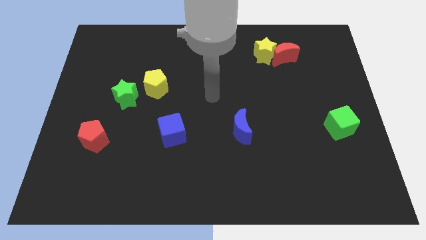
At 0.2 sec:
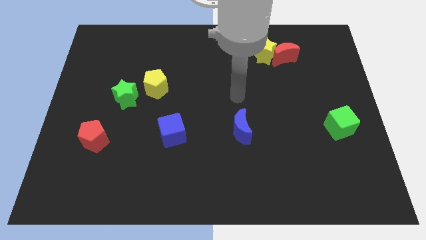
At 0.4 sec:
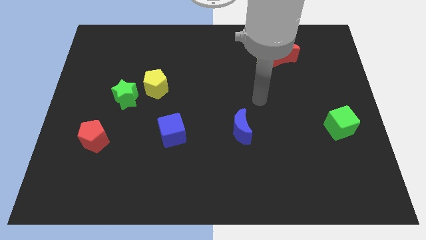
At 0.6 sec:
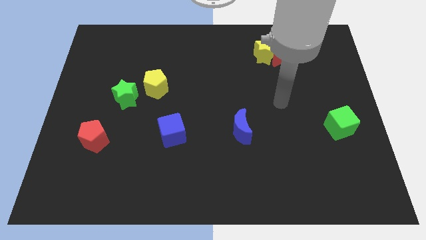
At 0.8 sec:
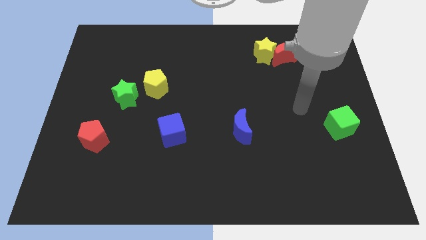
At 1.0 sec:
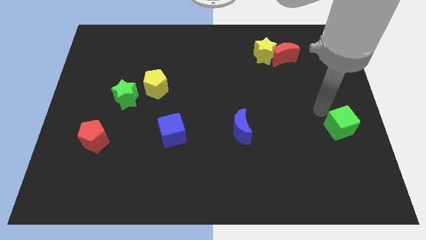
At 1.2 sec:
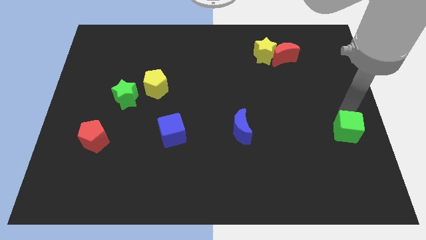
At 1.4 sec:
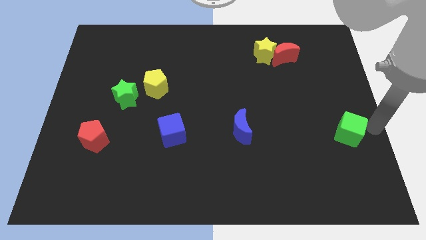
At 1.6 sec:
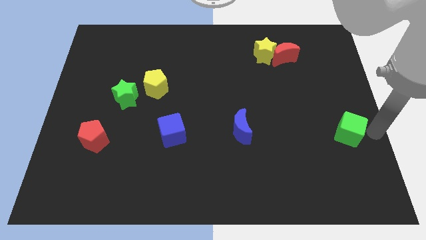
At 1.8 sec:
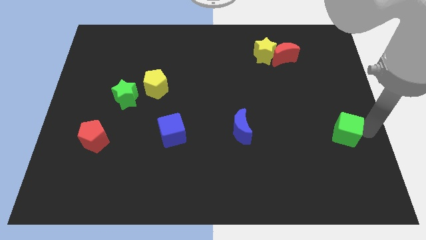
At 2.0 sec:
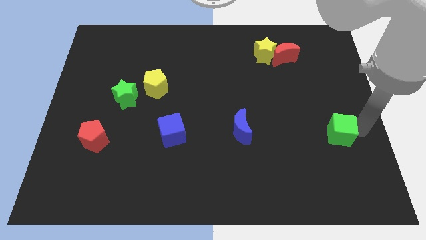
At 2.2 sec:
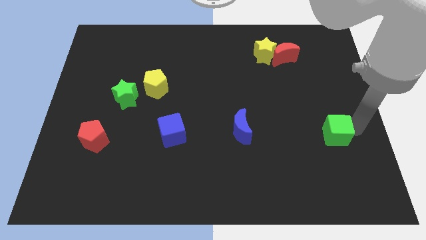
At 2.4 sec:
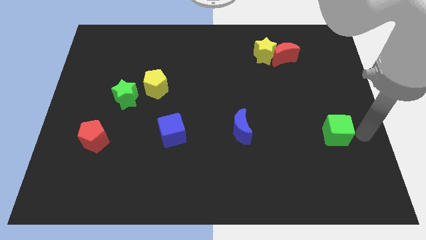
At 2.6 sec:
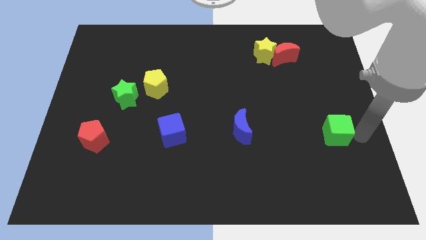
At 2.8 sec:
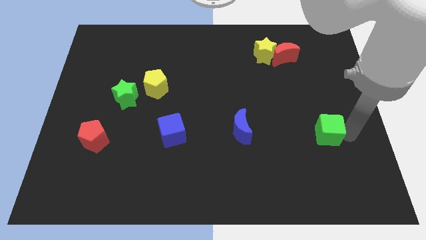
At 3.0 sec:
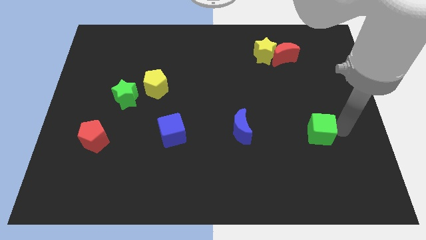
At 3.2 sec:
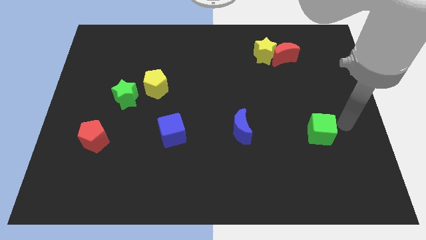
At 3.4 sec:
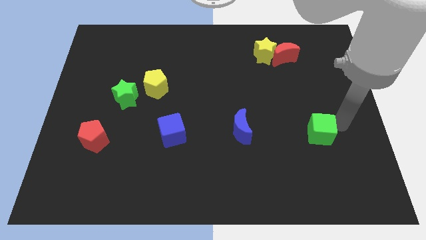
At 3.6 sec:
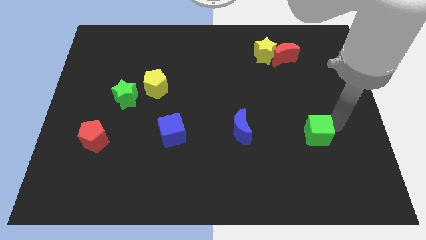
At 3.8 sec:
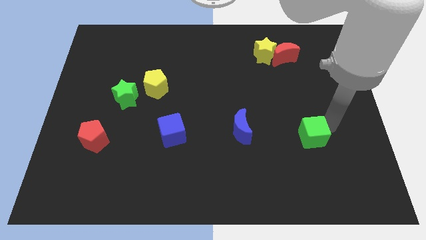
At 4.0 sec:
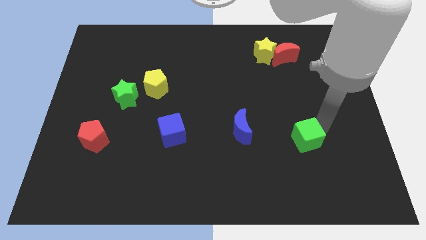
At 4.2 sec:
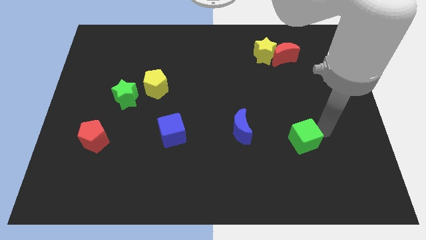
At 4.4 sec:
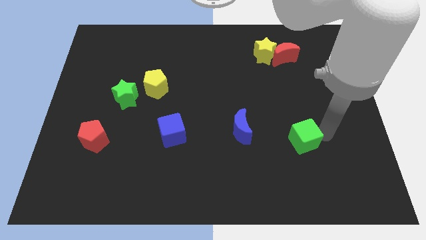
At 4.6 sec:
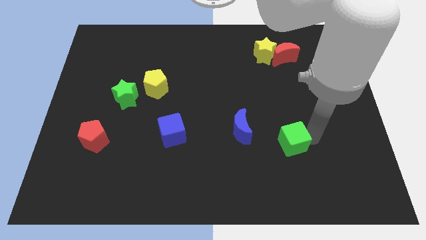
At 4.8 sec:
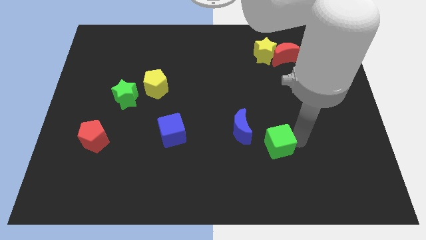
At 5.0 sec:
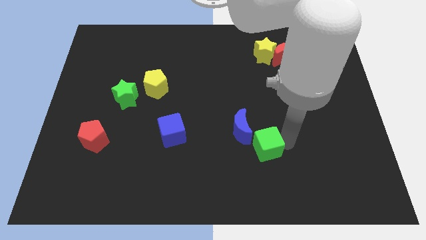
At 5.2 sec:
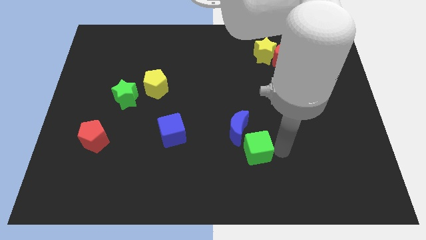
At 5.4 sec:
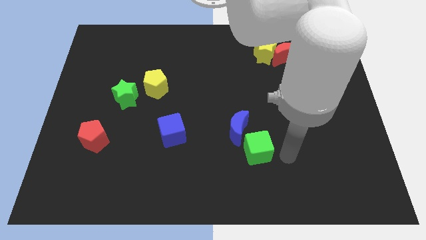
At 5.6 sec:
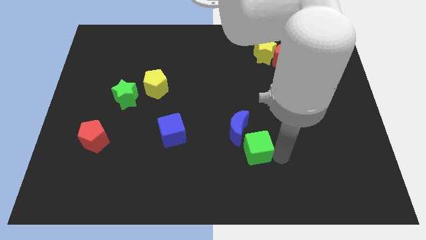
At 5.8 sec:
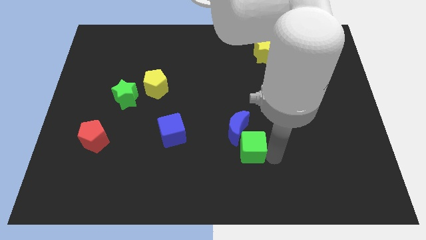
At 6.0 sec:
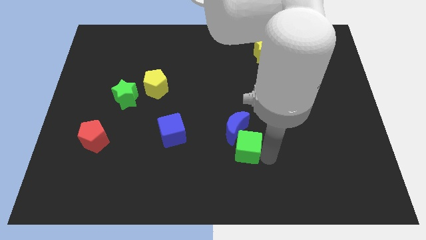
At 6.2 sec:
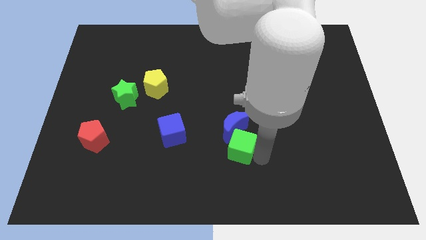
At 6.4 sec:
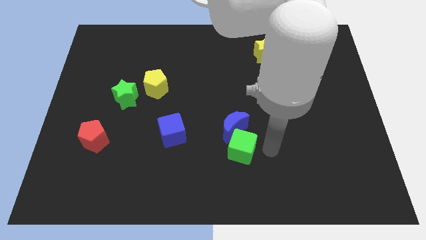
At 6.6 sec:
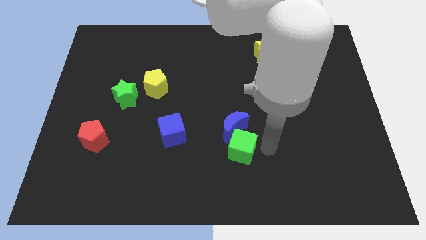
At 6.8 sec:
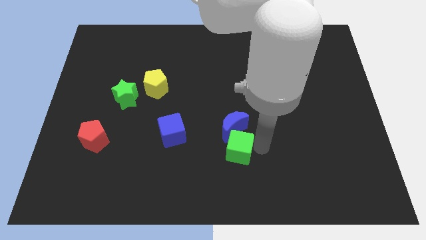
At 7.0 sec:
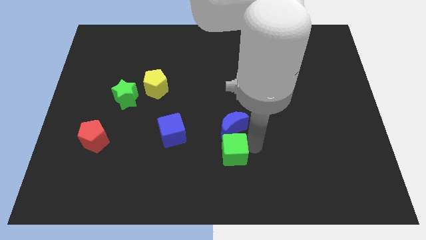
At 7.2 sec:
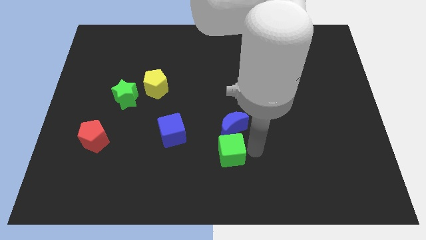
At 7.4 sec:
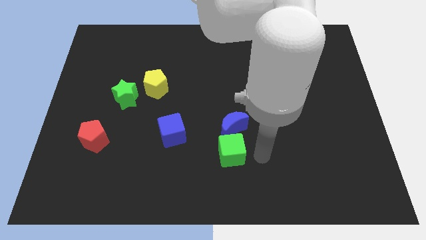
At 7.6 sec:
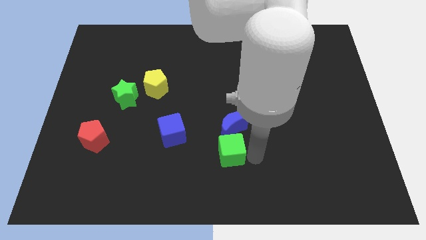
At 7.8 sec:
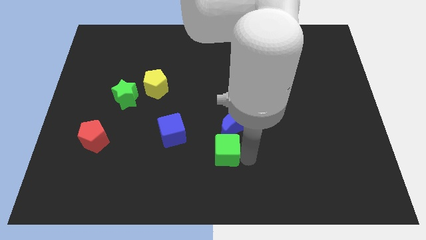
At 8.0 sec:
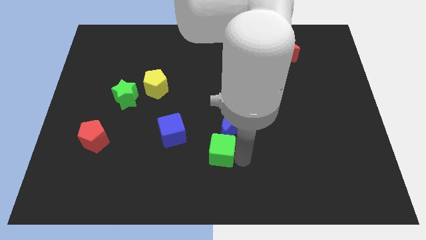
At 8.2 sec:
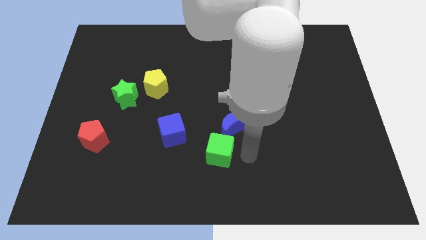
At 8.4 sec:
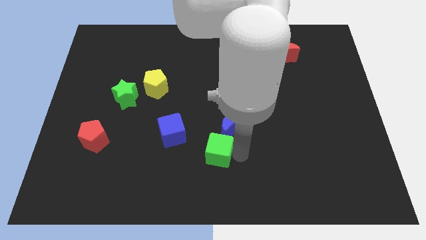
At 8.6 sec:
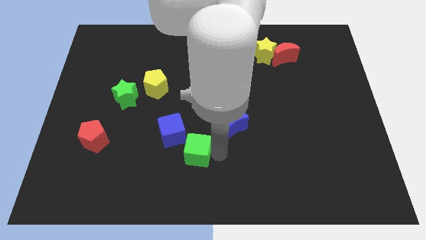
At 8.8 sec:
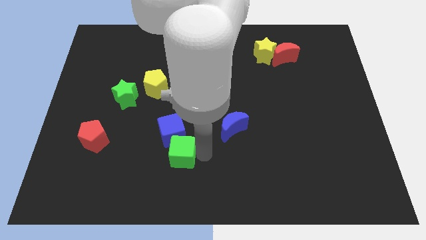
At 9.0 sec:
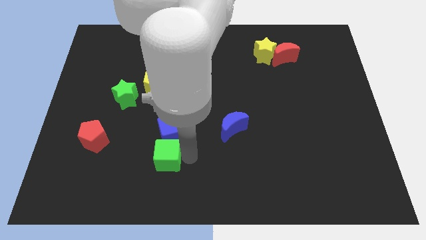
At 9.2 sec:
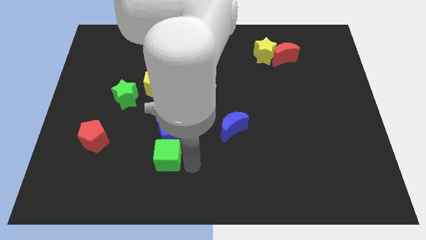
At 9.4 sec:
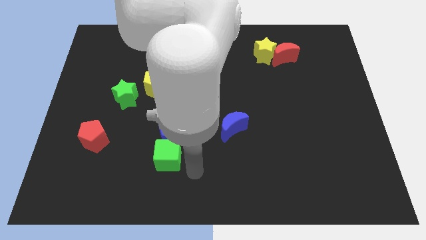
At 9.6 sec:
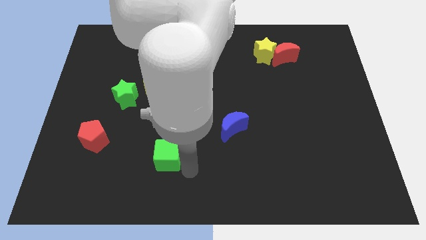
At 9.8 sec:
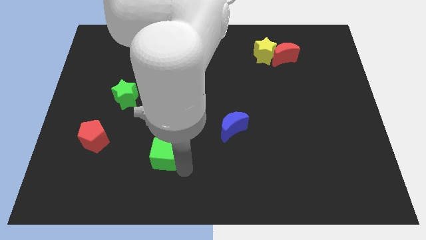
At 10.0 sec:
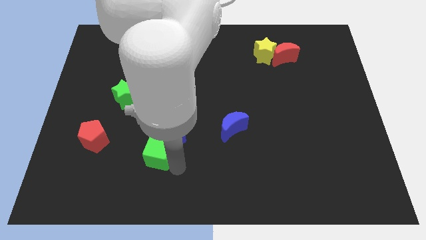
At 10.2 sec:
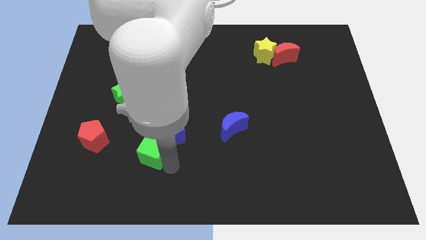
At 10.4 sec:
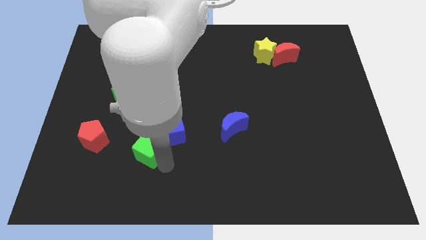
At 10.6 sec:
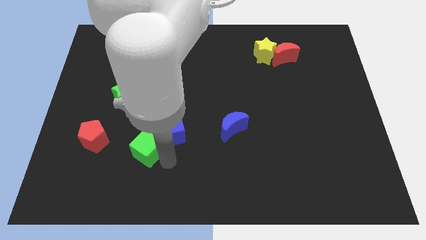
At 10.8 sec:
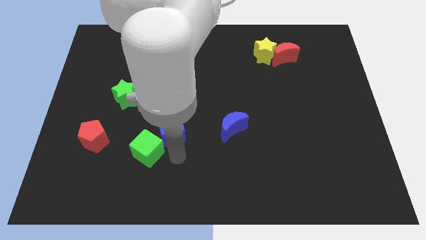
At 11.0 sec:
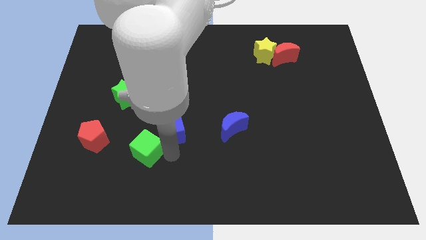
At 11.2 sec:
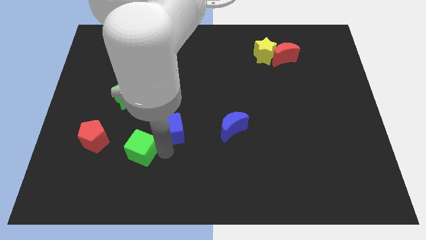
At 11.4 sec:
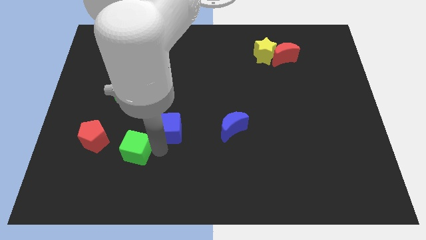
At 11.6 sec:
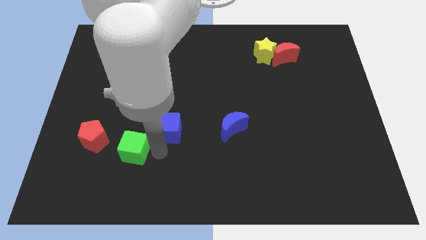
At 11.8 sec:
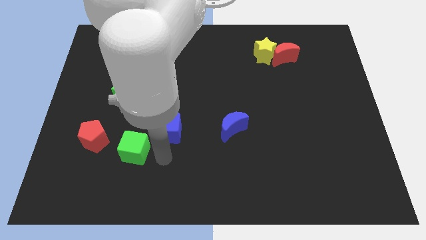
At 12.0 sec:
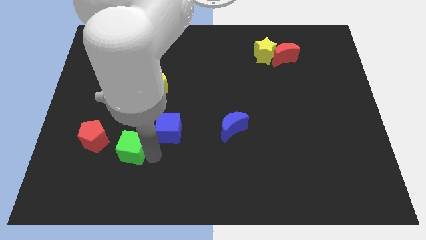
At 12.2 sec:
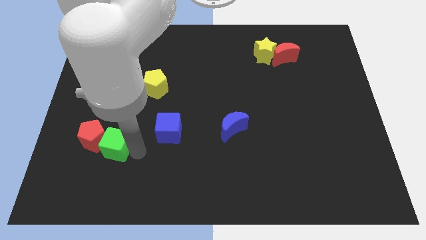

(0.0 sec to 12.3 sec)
push the green cube towards the red pentagon

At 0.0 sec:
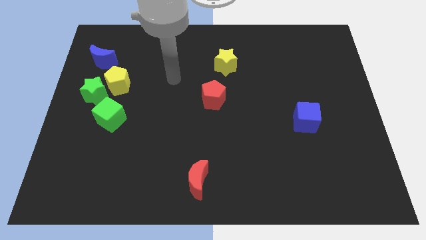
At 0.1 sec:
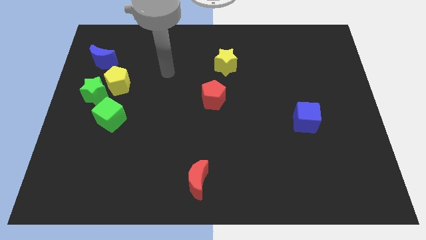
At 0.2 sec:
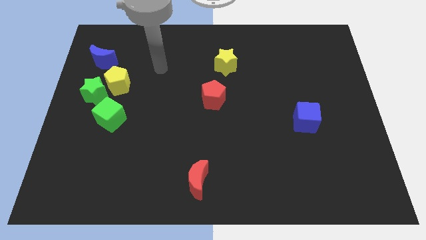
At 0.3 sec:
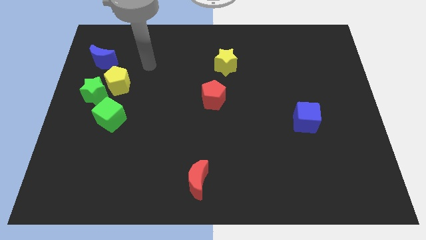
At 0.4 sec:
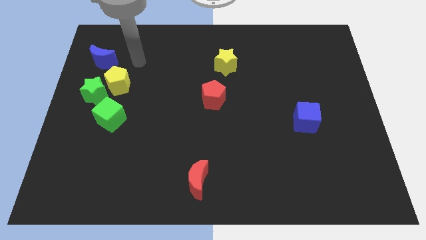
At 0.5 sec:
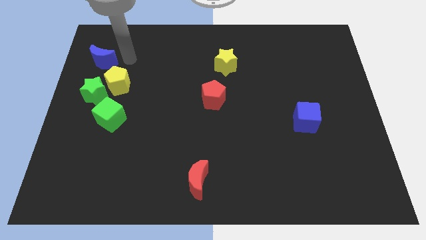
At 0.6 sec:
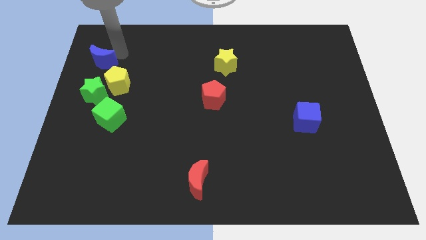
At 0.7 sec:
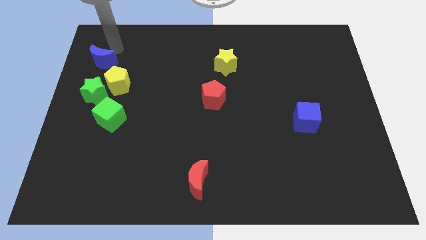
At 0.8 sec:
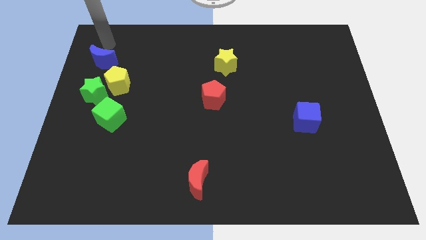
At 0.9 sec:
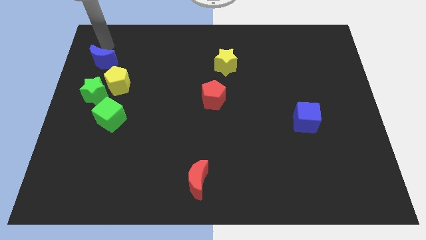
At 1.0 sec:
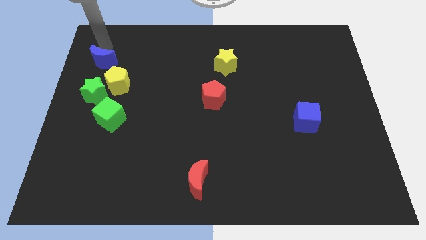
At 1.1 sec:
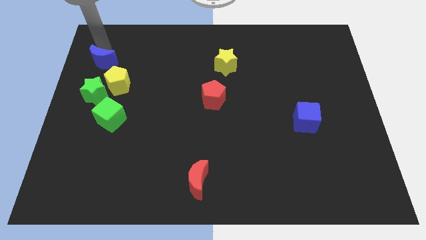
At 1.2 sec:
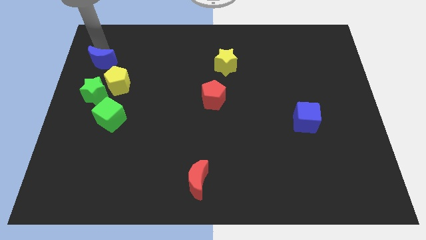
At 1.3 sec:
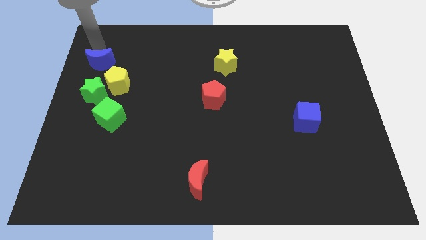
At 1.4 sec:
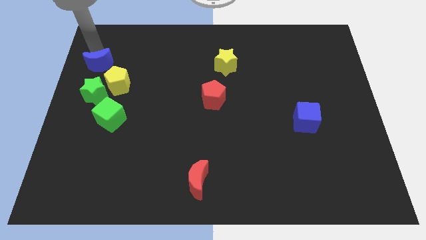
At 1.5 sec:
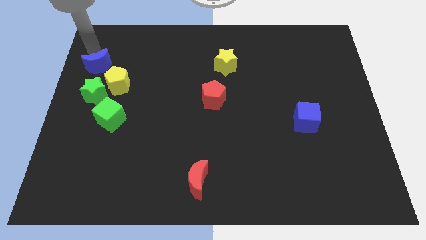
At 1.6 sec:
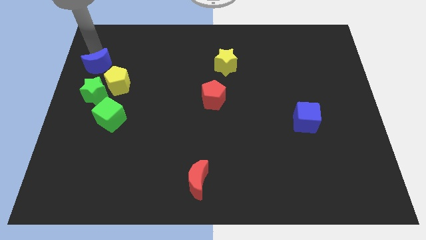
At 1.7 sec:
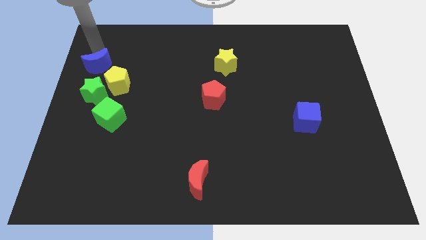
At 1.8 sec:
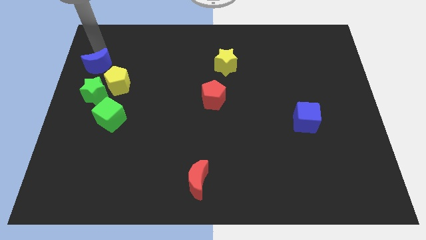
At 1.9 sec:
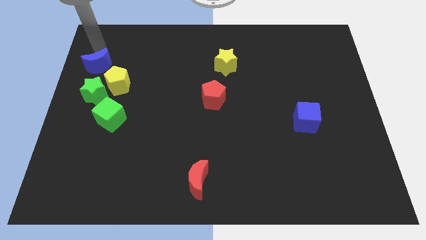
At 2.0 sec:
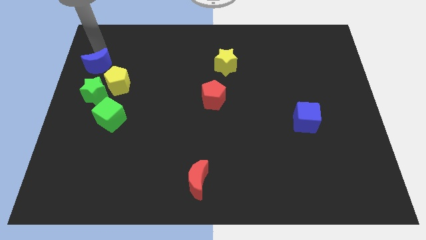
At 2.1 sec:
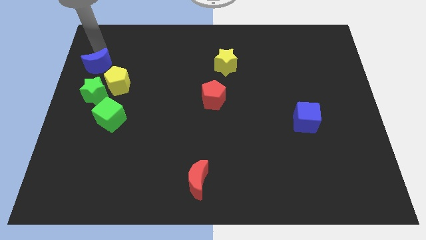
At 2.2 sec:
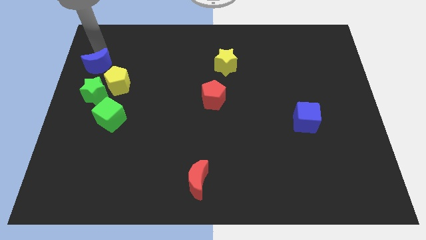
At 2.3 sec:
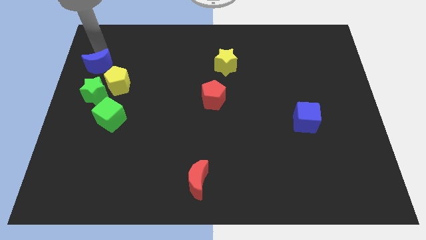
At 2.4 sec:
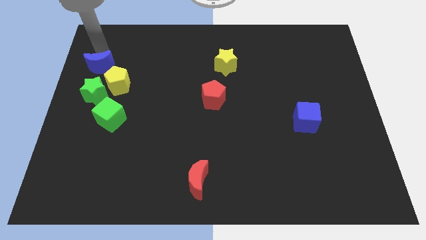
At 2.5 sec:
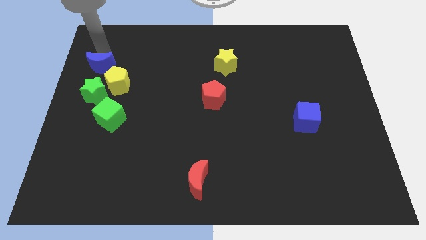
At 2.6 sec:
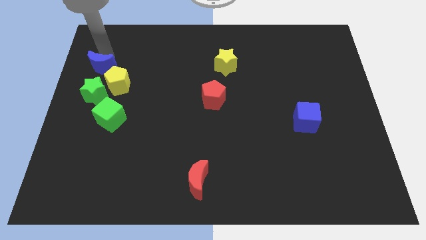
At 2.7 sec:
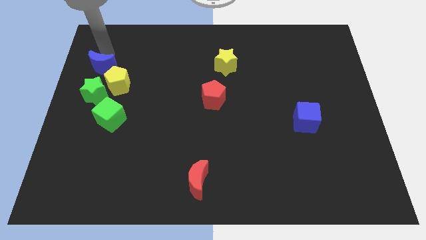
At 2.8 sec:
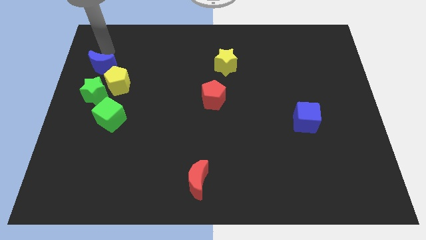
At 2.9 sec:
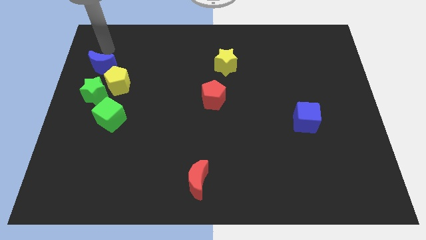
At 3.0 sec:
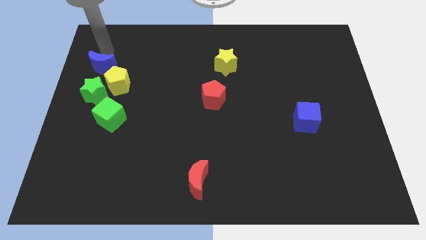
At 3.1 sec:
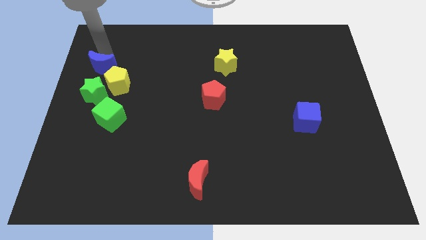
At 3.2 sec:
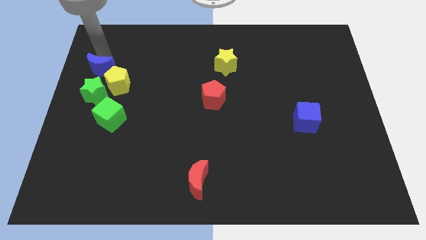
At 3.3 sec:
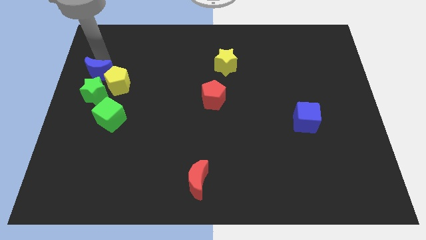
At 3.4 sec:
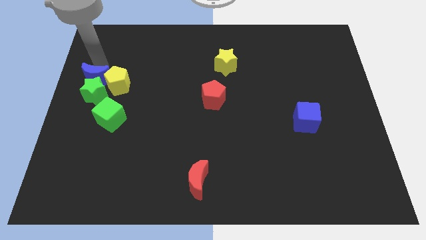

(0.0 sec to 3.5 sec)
move the blue moon next to the green star
